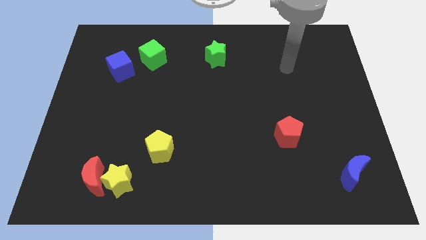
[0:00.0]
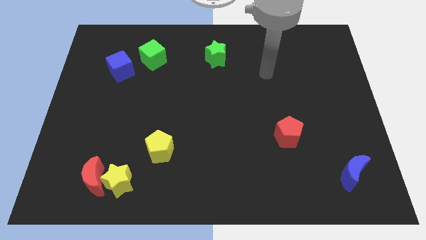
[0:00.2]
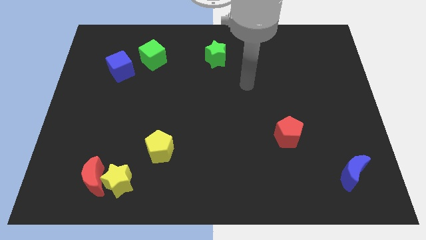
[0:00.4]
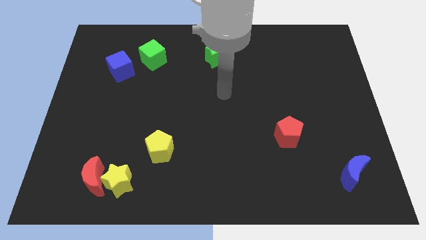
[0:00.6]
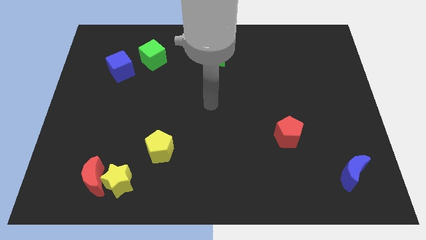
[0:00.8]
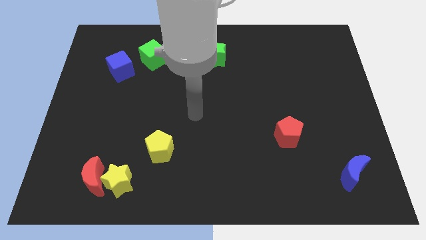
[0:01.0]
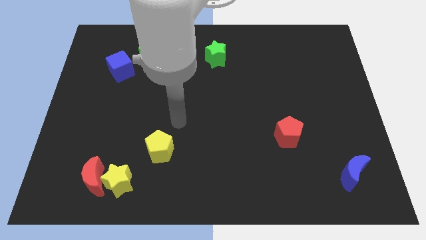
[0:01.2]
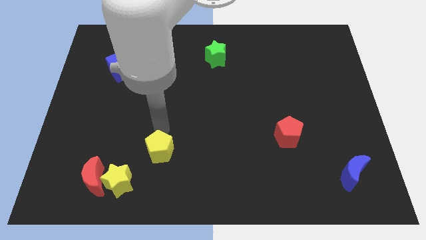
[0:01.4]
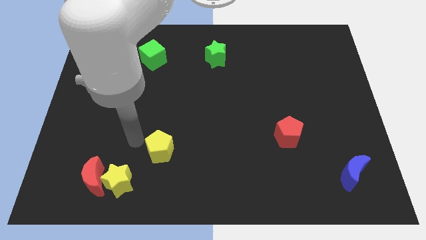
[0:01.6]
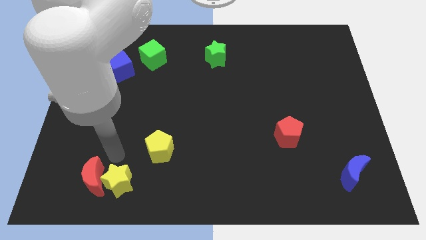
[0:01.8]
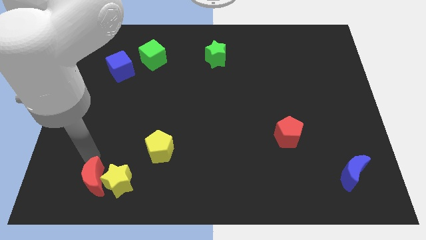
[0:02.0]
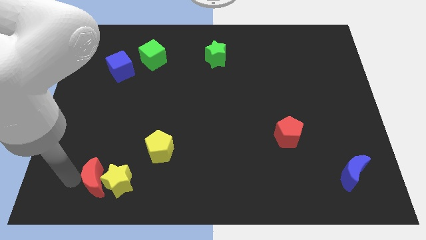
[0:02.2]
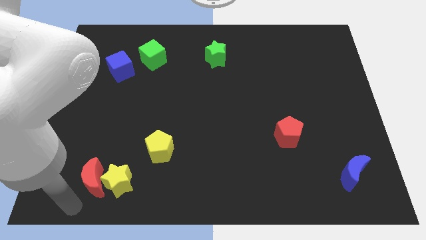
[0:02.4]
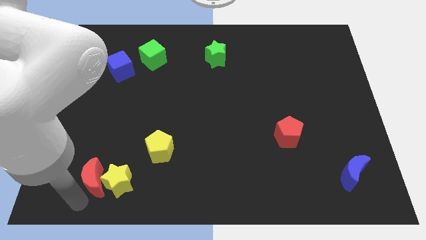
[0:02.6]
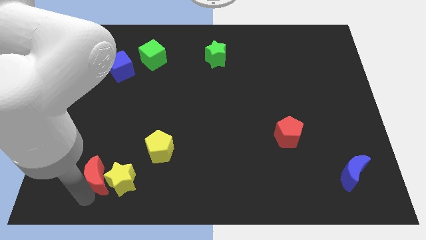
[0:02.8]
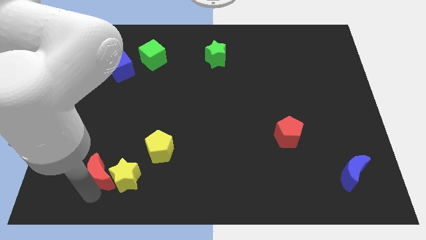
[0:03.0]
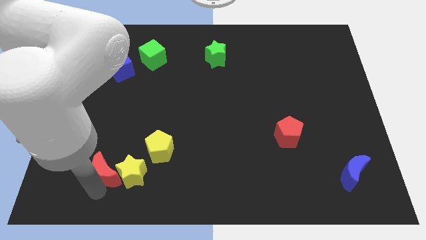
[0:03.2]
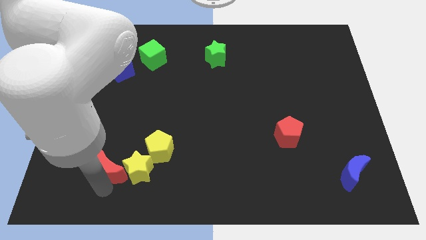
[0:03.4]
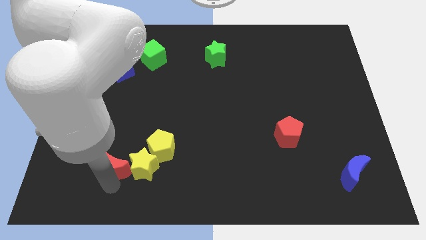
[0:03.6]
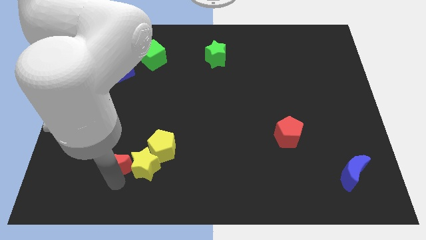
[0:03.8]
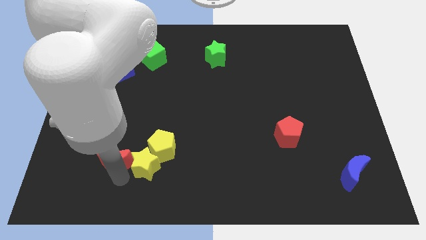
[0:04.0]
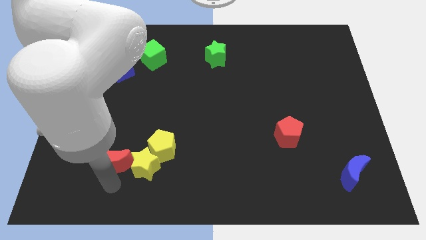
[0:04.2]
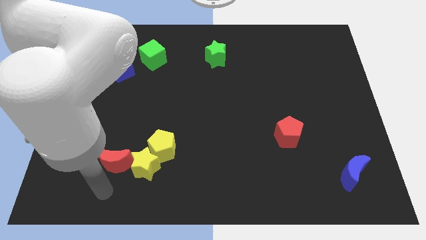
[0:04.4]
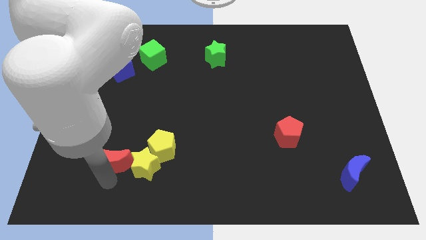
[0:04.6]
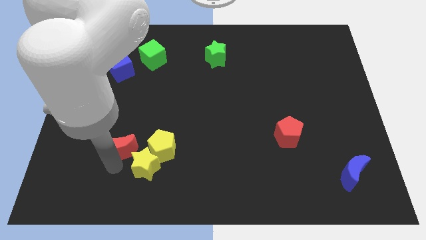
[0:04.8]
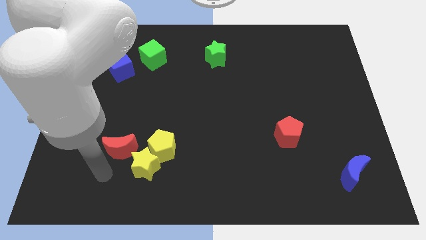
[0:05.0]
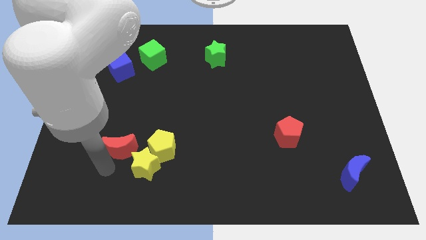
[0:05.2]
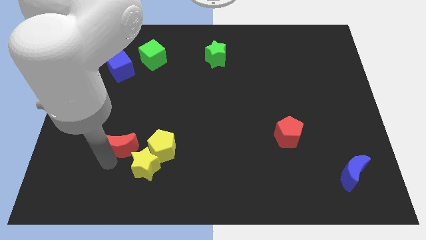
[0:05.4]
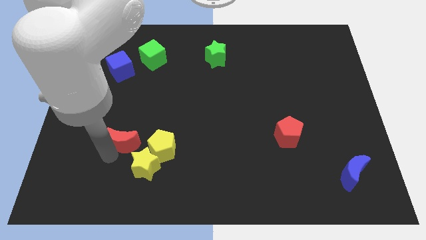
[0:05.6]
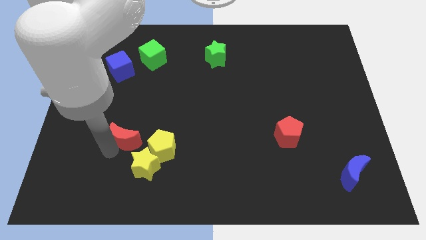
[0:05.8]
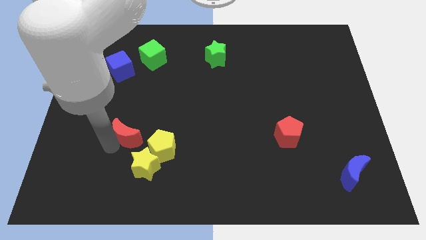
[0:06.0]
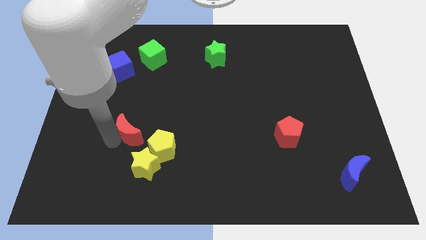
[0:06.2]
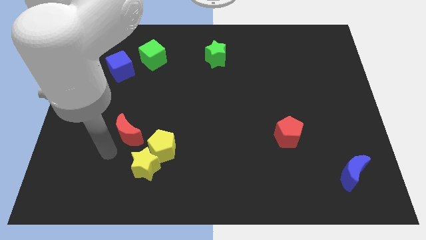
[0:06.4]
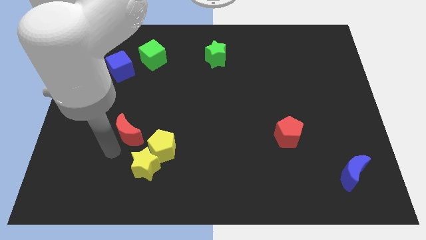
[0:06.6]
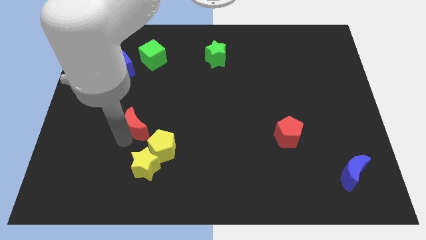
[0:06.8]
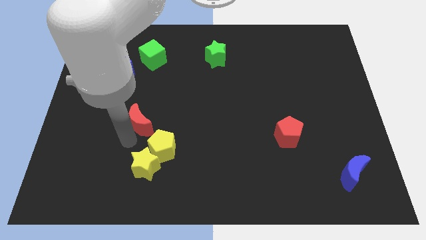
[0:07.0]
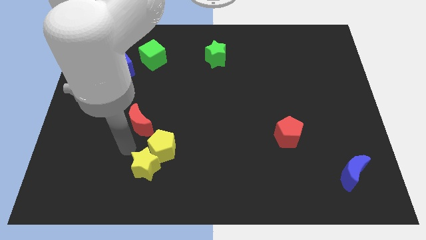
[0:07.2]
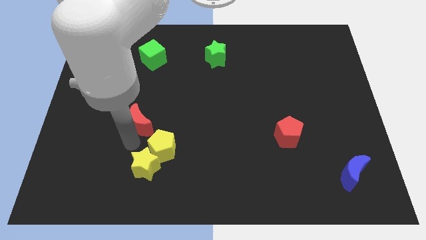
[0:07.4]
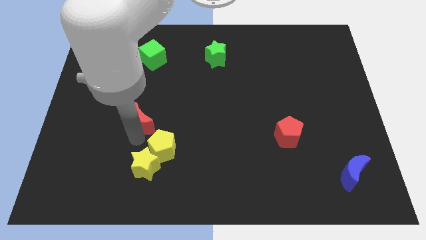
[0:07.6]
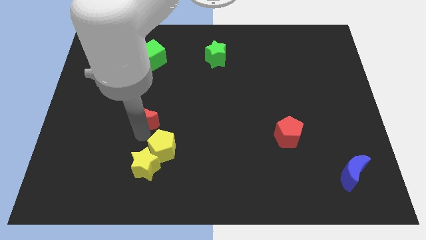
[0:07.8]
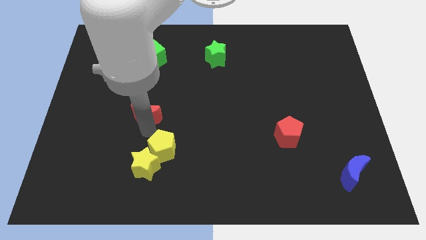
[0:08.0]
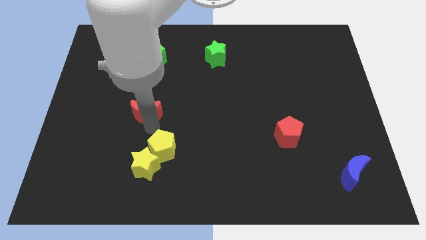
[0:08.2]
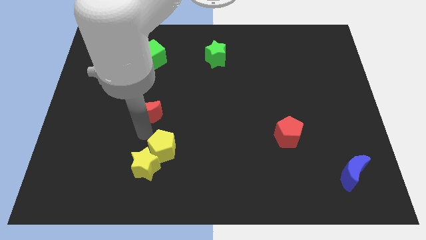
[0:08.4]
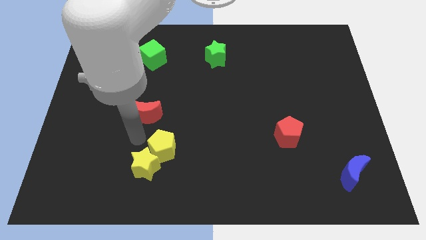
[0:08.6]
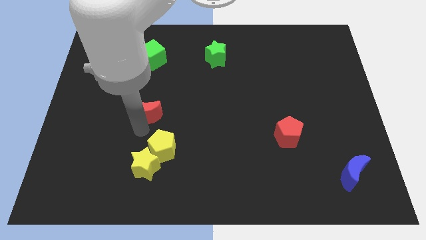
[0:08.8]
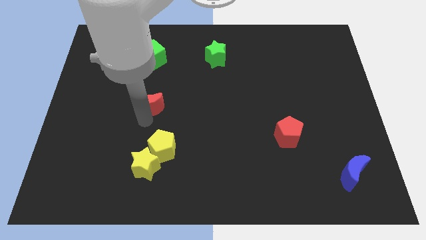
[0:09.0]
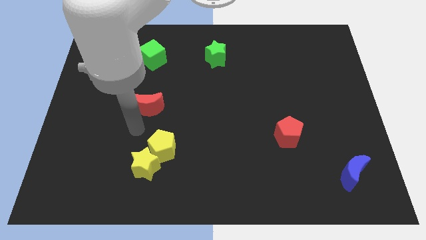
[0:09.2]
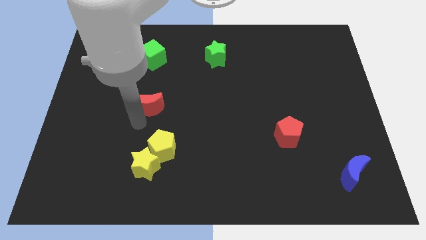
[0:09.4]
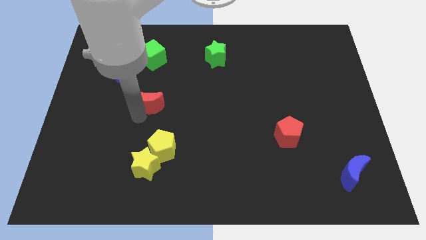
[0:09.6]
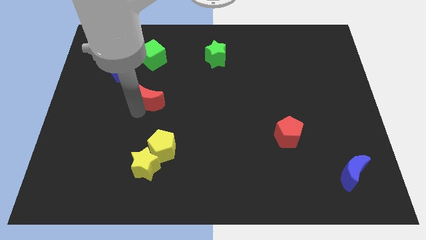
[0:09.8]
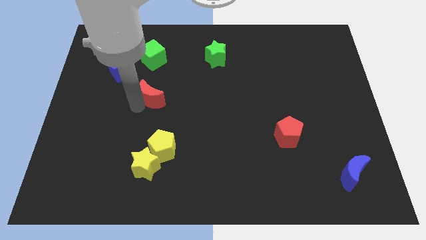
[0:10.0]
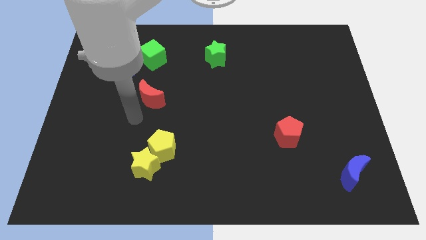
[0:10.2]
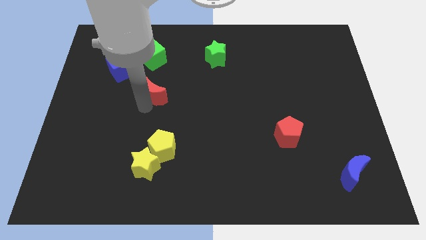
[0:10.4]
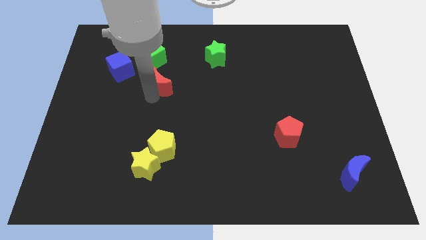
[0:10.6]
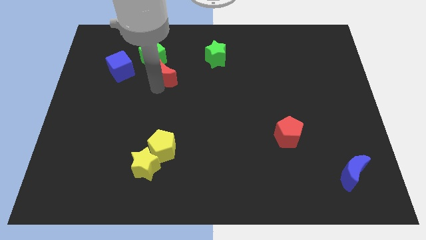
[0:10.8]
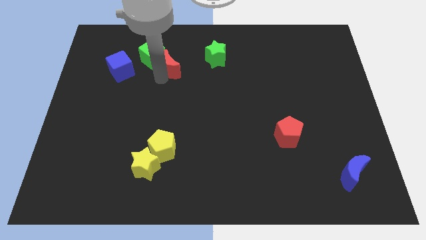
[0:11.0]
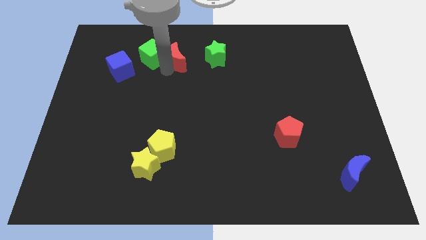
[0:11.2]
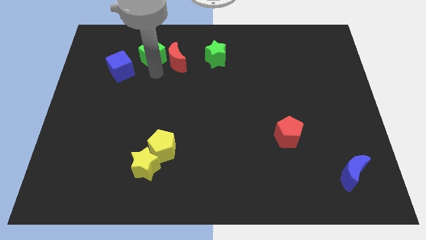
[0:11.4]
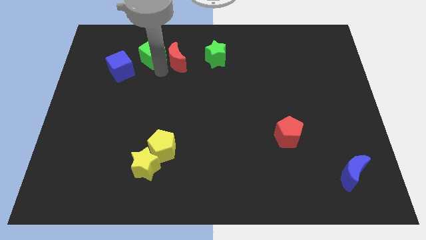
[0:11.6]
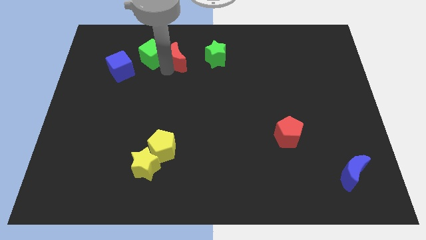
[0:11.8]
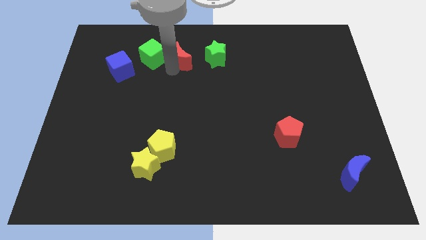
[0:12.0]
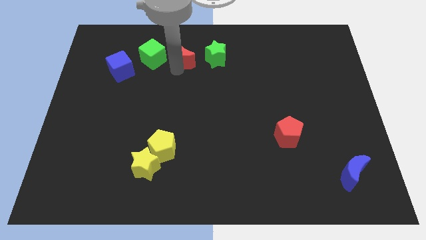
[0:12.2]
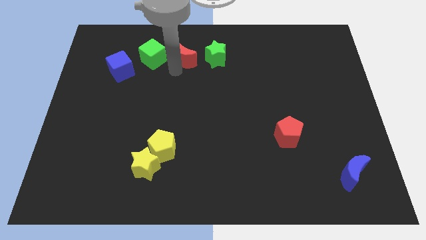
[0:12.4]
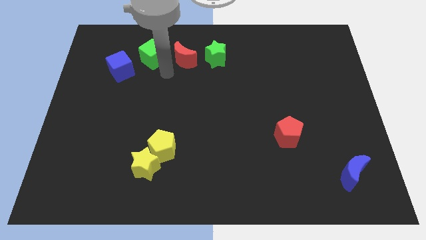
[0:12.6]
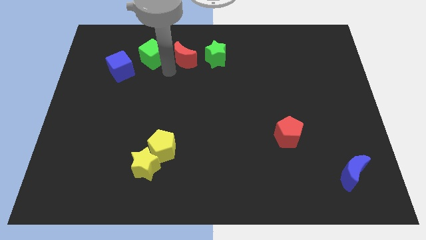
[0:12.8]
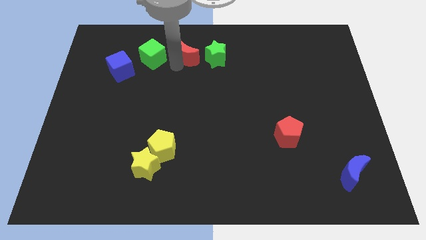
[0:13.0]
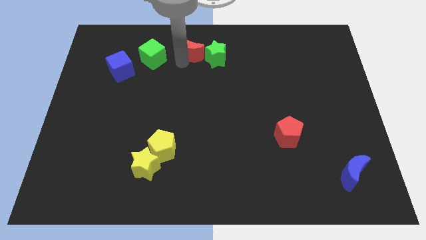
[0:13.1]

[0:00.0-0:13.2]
move the red moon to the towards your base

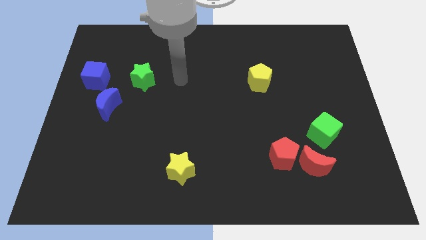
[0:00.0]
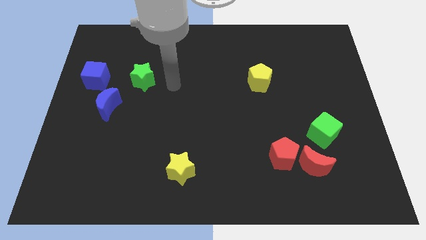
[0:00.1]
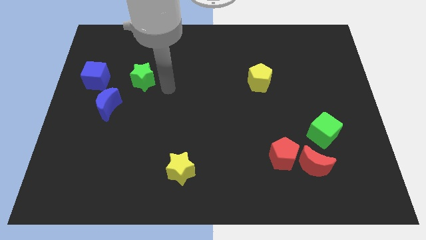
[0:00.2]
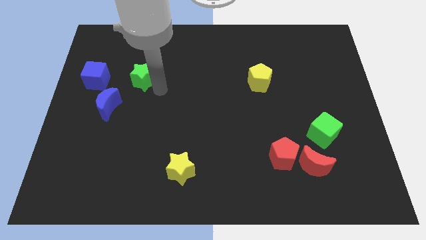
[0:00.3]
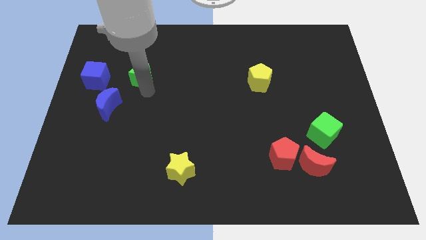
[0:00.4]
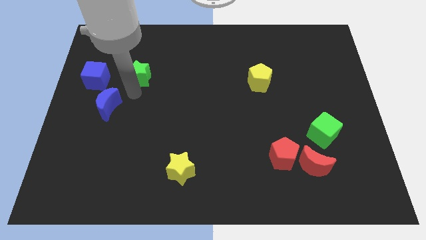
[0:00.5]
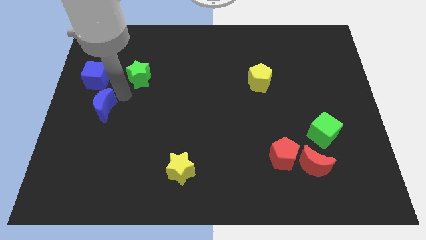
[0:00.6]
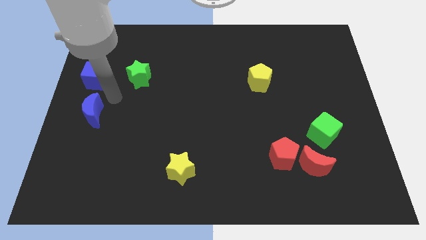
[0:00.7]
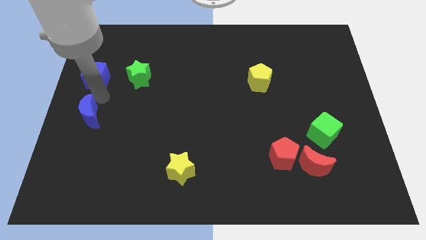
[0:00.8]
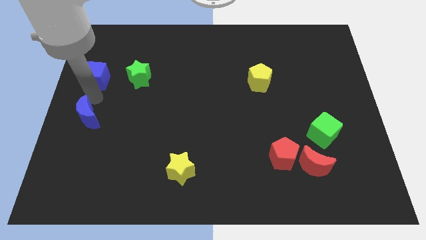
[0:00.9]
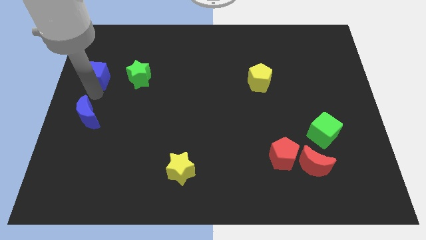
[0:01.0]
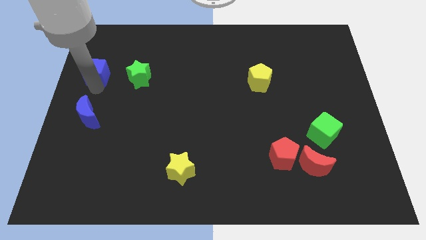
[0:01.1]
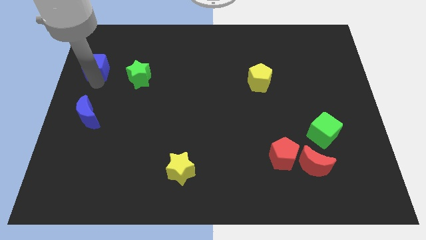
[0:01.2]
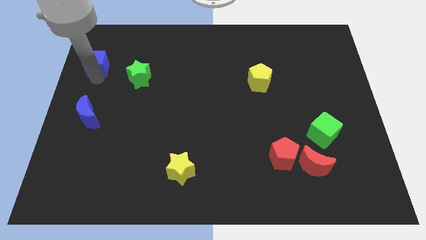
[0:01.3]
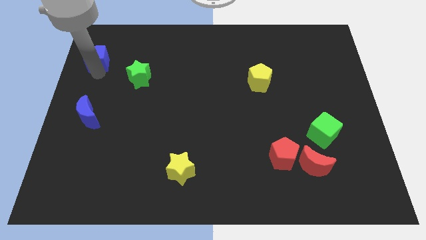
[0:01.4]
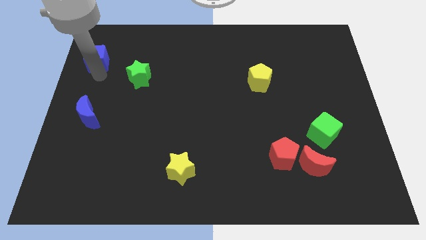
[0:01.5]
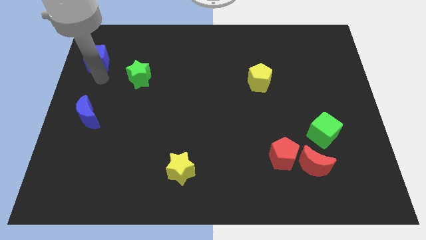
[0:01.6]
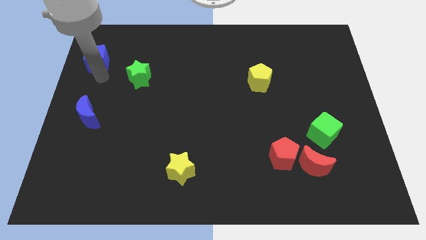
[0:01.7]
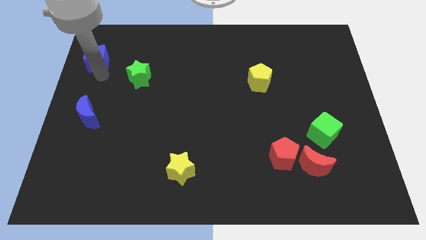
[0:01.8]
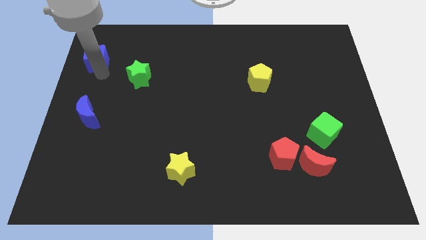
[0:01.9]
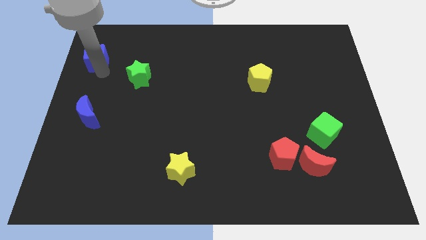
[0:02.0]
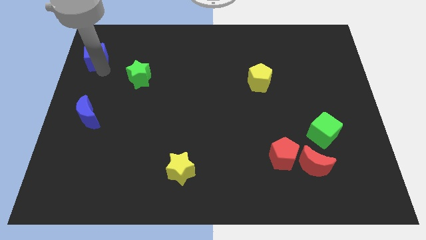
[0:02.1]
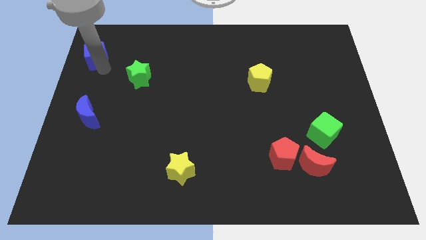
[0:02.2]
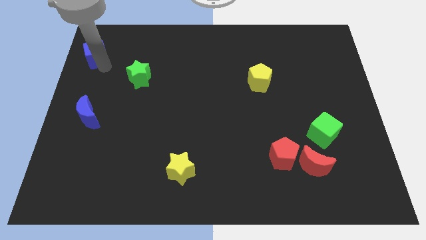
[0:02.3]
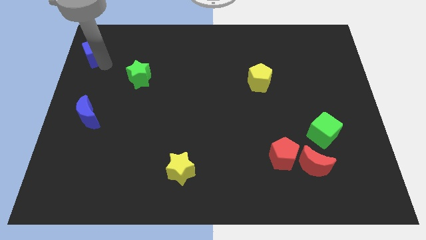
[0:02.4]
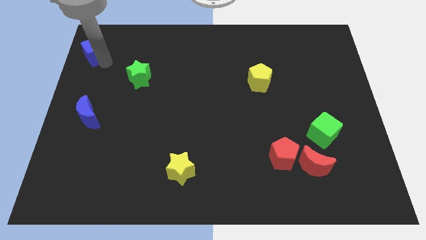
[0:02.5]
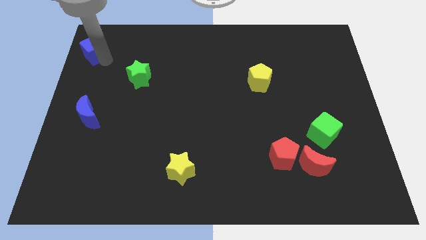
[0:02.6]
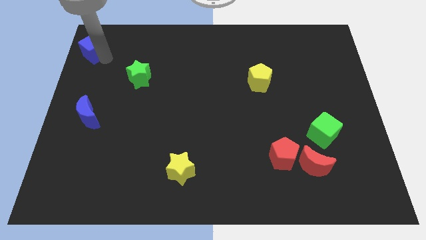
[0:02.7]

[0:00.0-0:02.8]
put the blue cube to the top left of the board
